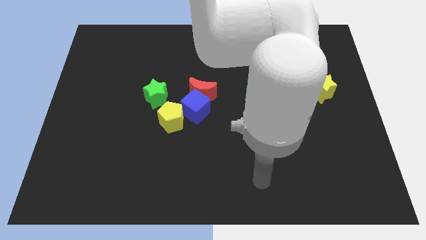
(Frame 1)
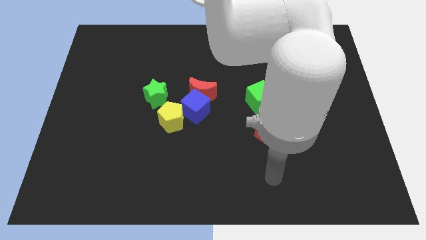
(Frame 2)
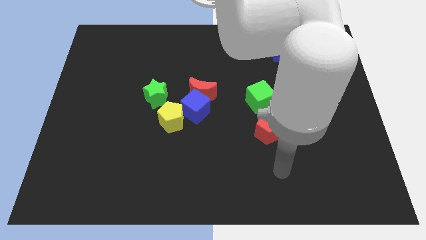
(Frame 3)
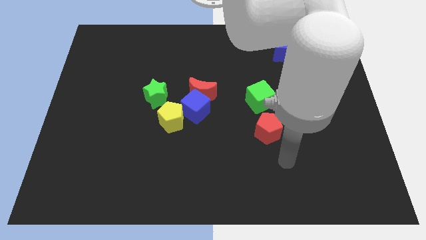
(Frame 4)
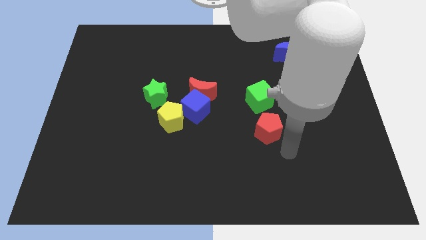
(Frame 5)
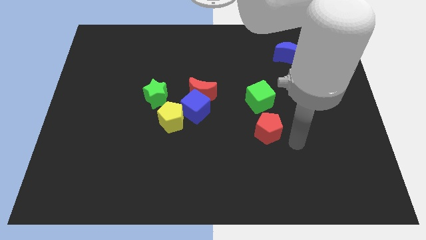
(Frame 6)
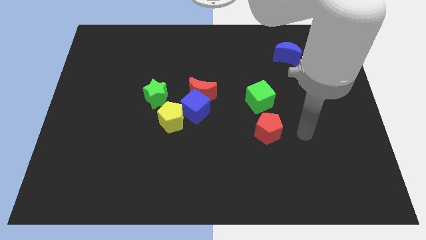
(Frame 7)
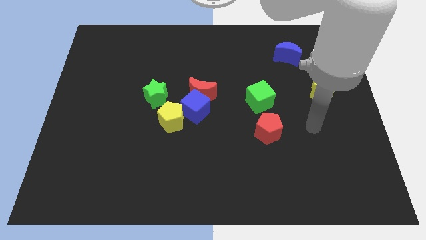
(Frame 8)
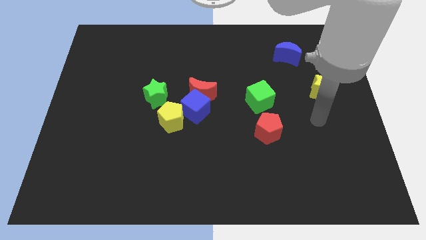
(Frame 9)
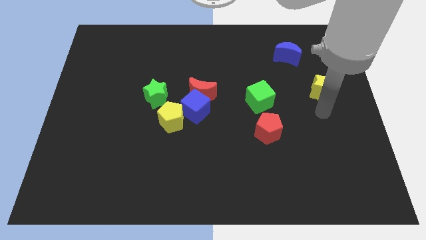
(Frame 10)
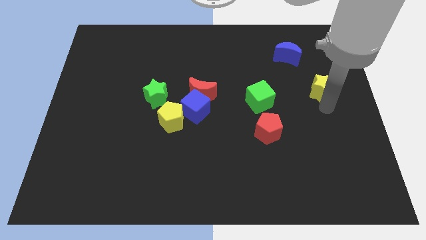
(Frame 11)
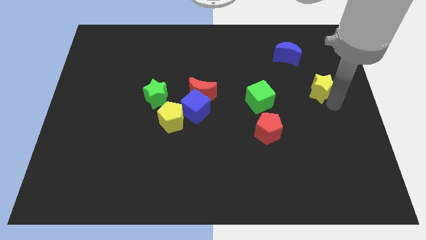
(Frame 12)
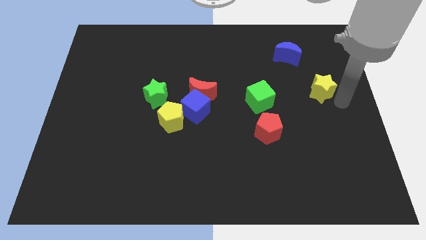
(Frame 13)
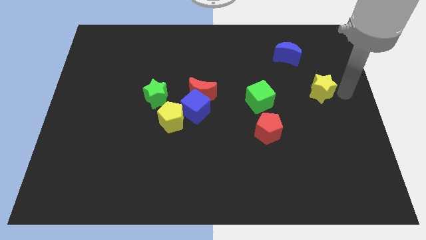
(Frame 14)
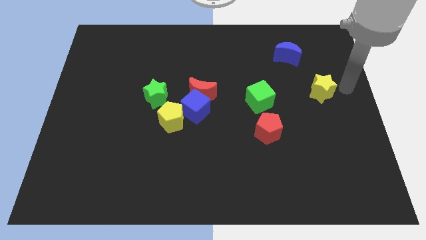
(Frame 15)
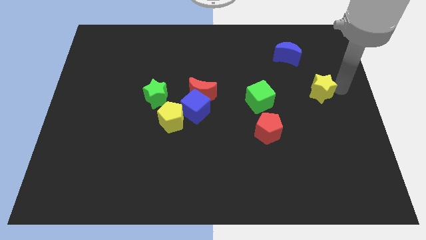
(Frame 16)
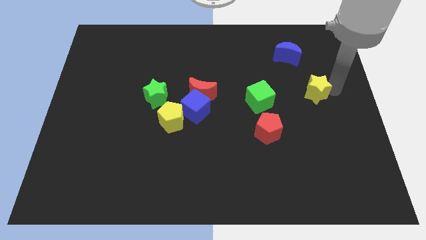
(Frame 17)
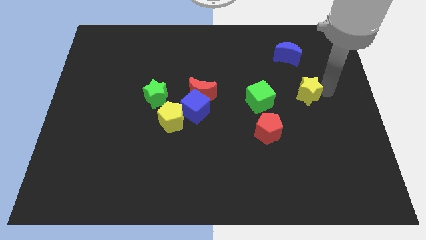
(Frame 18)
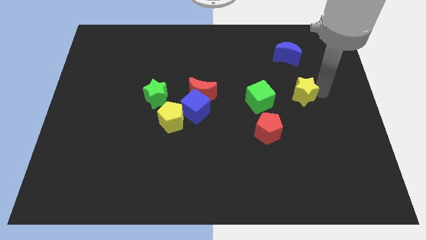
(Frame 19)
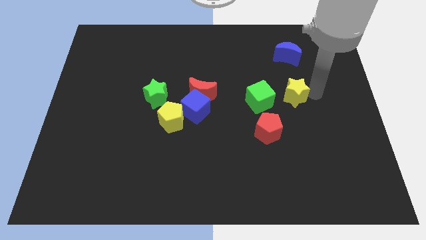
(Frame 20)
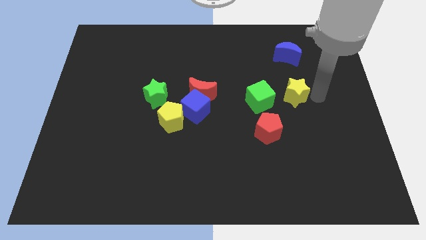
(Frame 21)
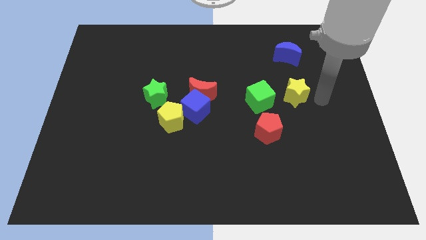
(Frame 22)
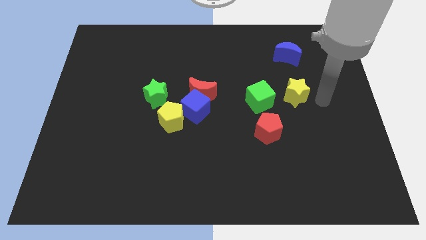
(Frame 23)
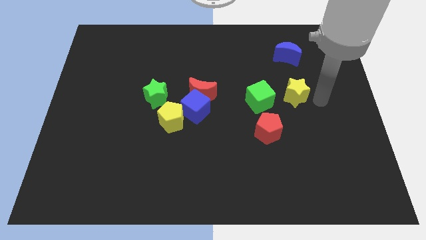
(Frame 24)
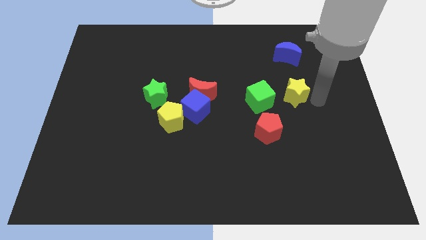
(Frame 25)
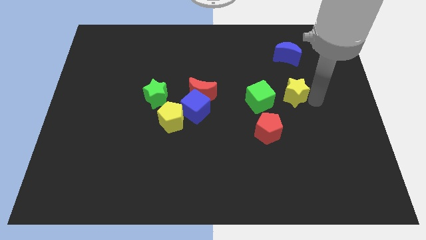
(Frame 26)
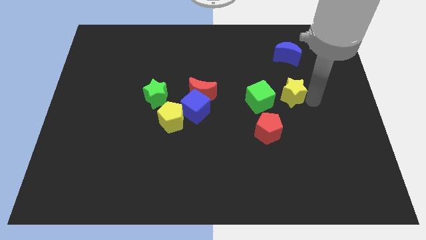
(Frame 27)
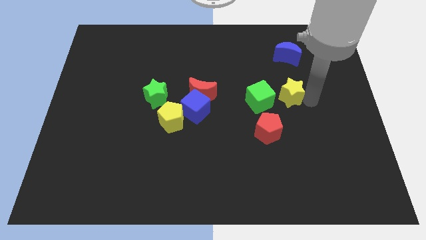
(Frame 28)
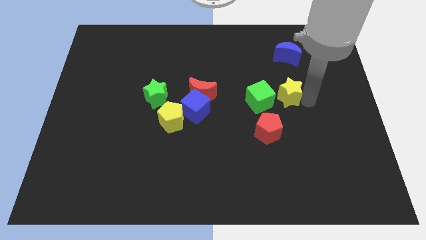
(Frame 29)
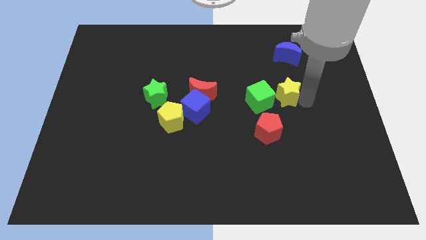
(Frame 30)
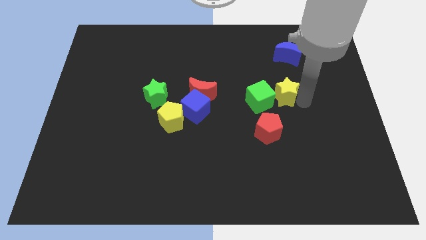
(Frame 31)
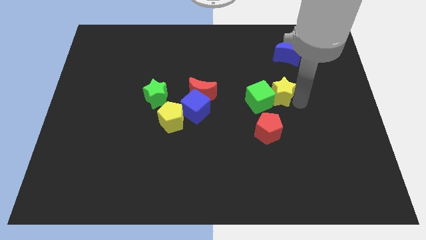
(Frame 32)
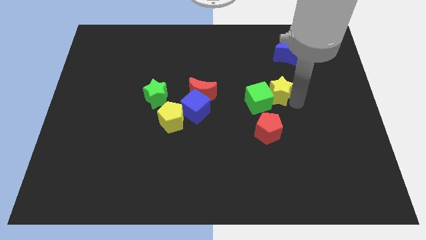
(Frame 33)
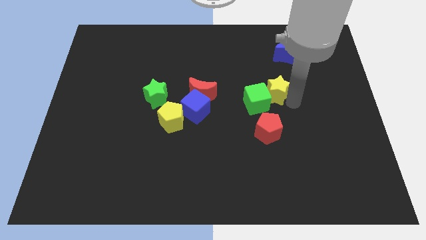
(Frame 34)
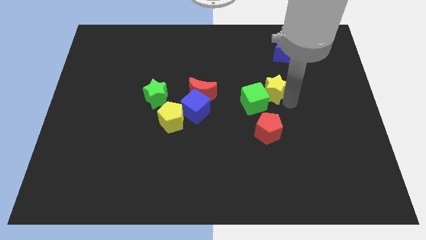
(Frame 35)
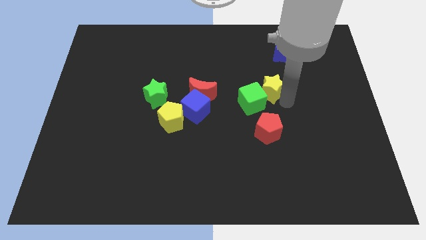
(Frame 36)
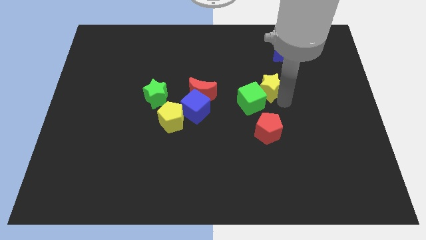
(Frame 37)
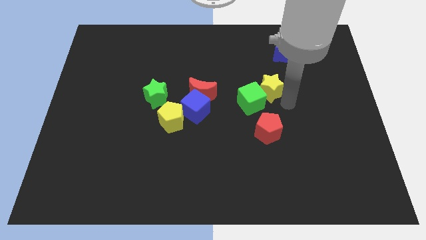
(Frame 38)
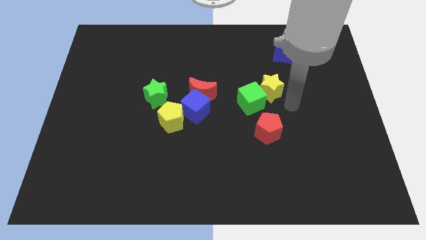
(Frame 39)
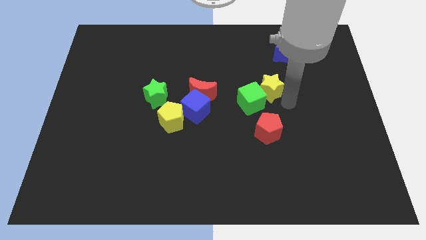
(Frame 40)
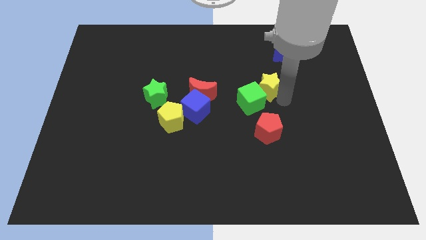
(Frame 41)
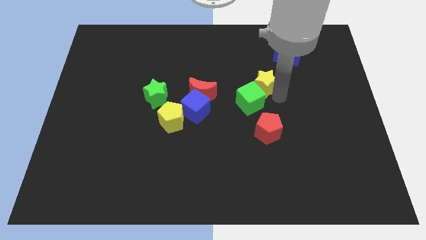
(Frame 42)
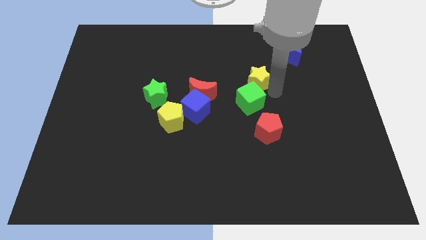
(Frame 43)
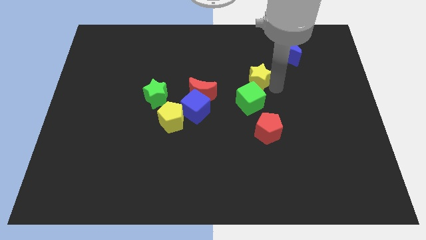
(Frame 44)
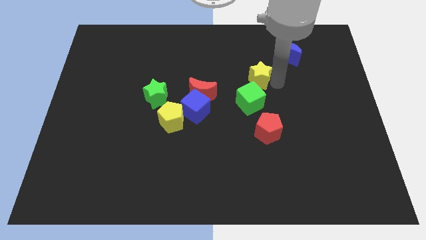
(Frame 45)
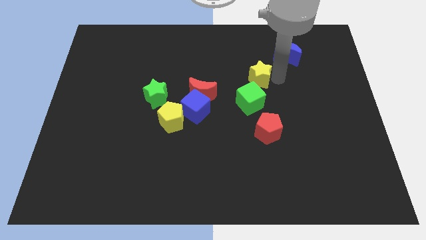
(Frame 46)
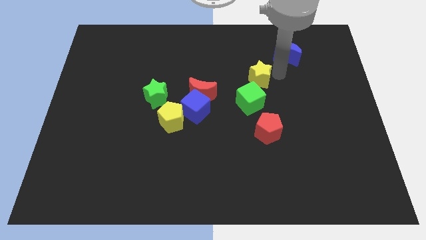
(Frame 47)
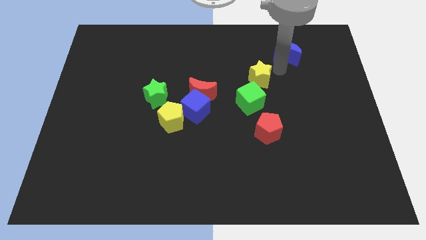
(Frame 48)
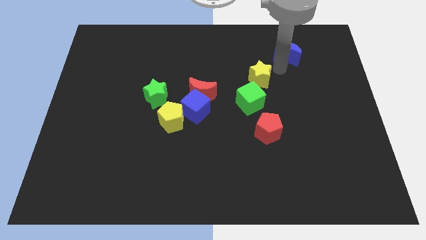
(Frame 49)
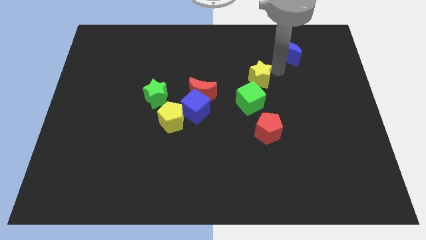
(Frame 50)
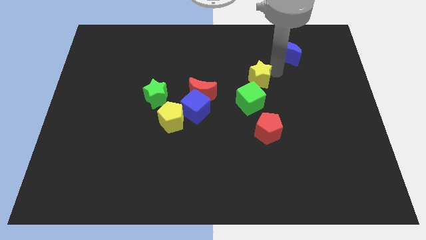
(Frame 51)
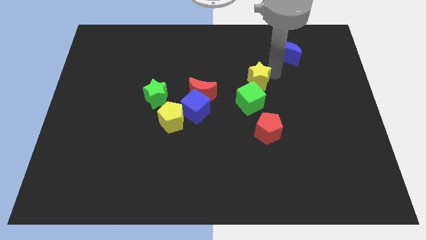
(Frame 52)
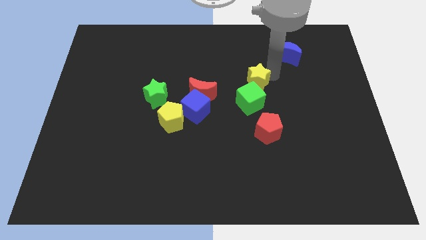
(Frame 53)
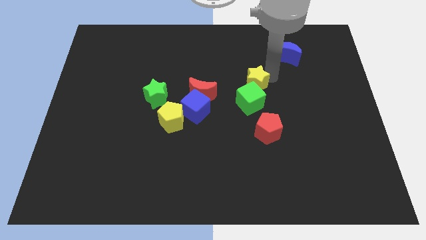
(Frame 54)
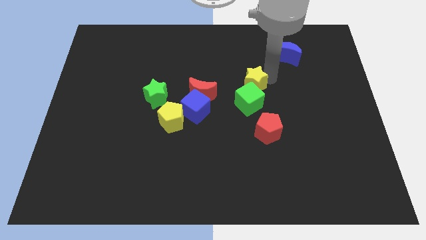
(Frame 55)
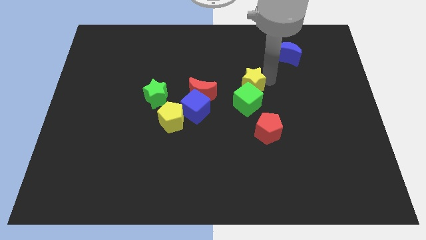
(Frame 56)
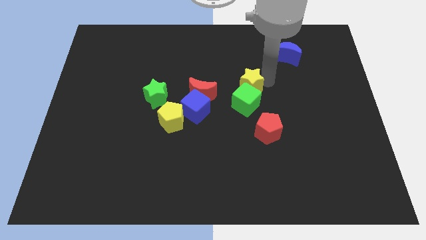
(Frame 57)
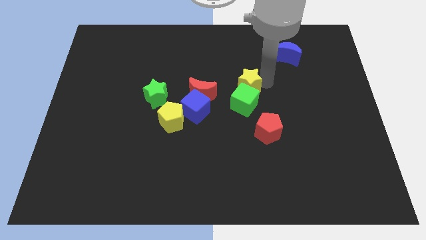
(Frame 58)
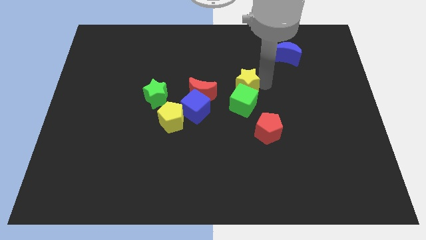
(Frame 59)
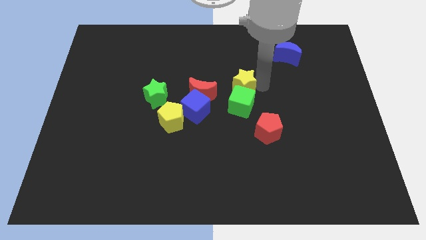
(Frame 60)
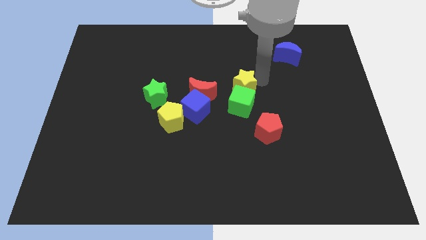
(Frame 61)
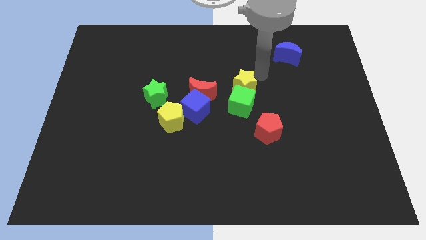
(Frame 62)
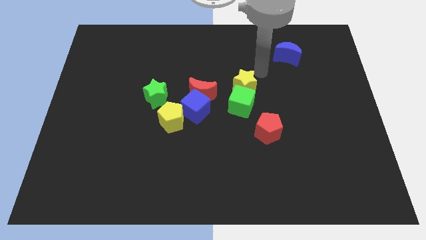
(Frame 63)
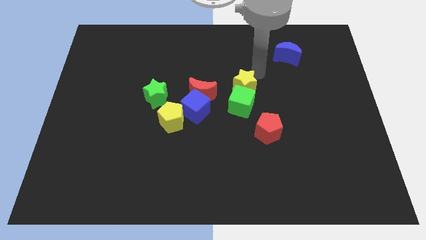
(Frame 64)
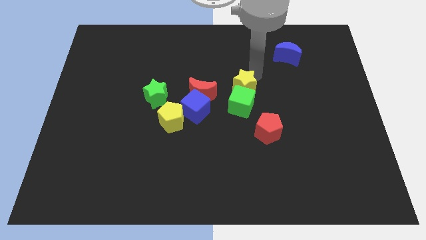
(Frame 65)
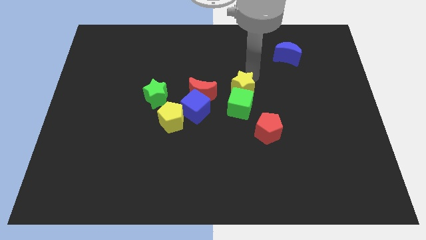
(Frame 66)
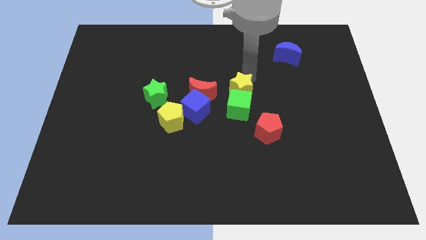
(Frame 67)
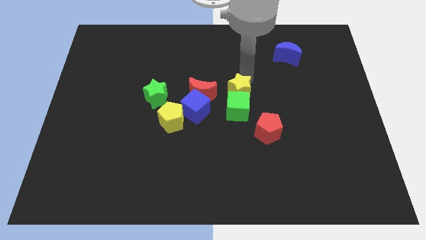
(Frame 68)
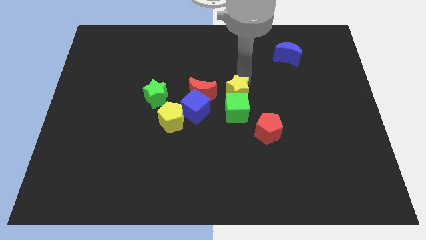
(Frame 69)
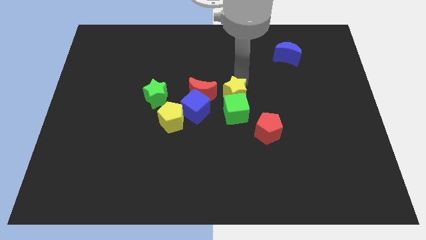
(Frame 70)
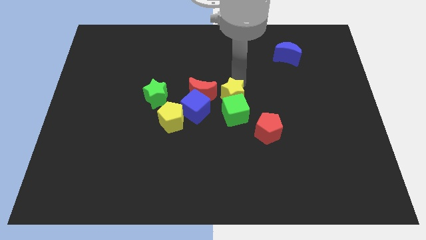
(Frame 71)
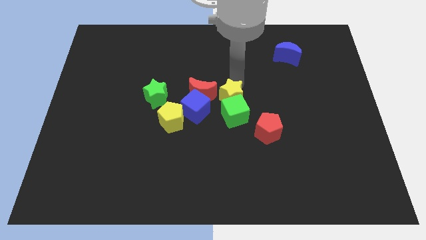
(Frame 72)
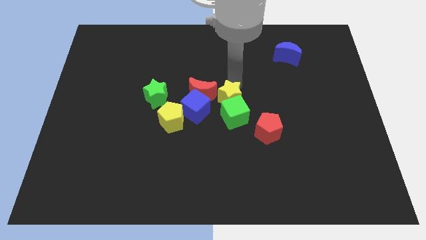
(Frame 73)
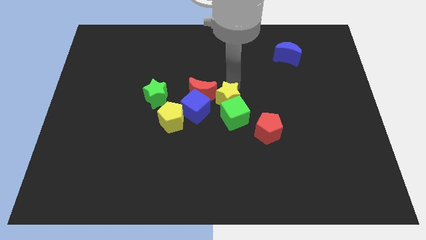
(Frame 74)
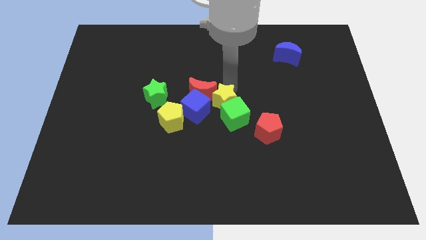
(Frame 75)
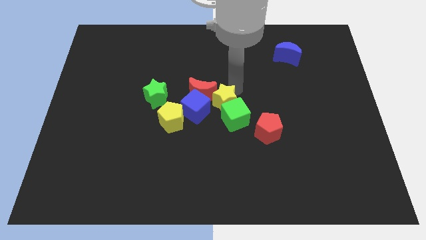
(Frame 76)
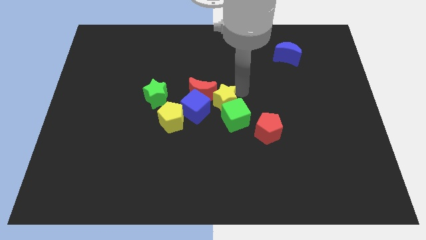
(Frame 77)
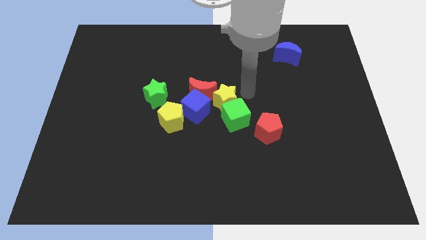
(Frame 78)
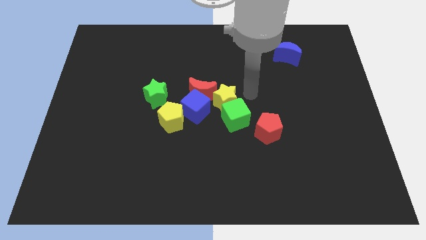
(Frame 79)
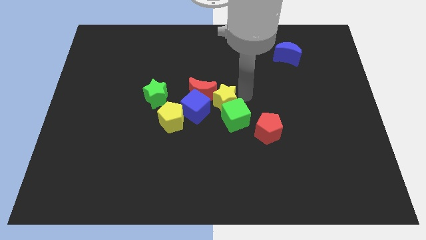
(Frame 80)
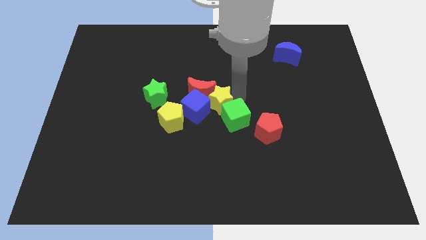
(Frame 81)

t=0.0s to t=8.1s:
slide the yellow star next to the blue cube
